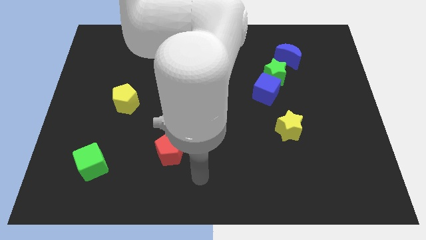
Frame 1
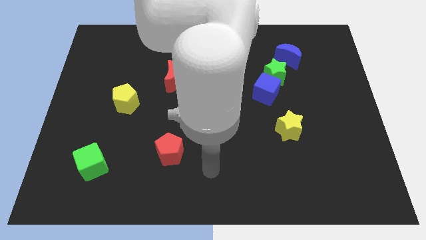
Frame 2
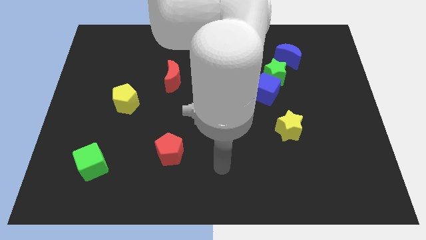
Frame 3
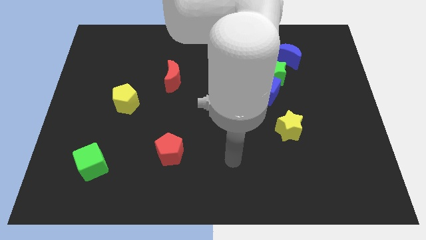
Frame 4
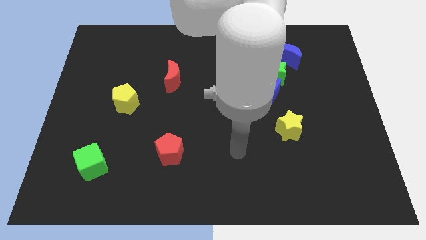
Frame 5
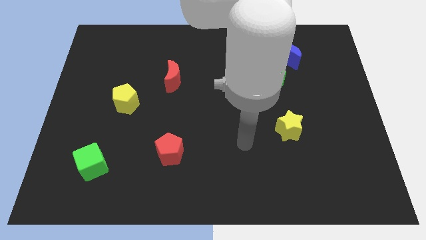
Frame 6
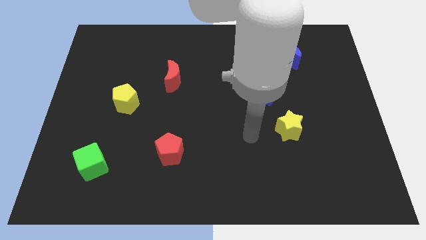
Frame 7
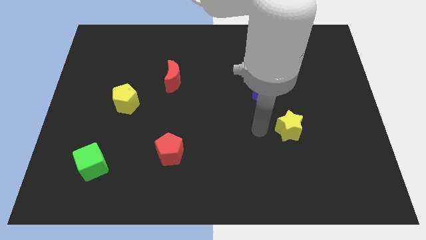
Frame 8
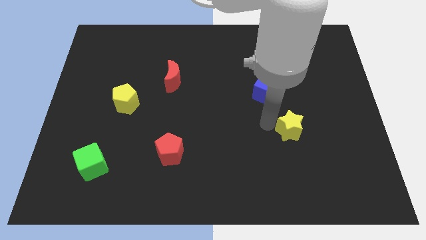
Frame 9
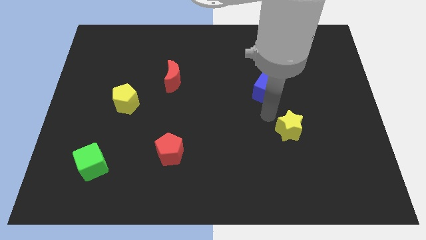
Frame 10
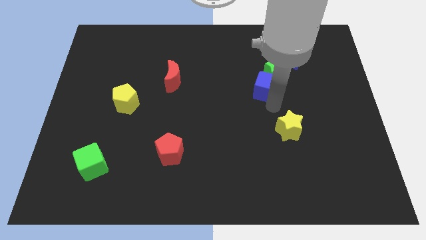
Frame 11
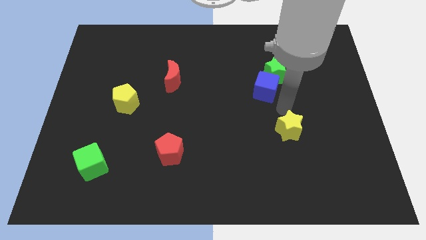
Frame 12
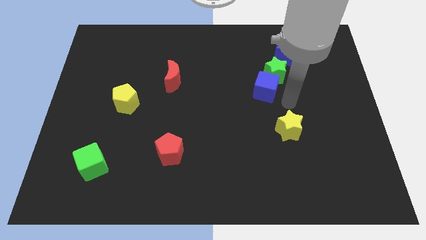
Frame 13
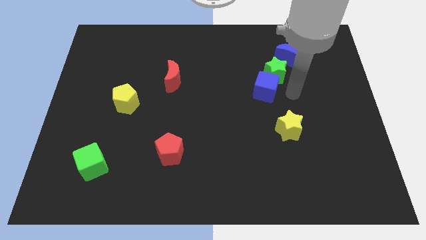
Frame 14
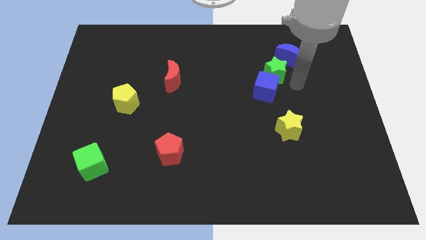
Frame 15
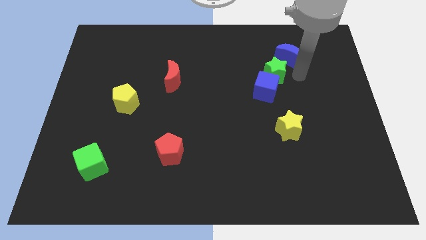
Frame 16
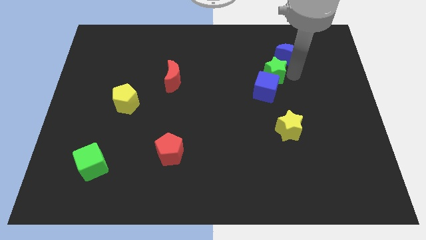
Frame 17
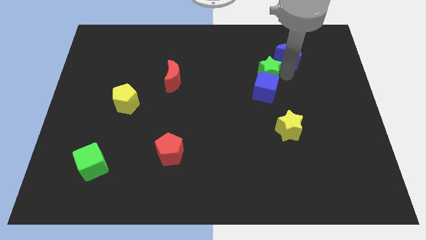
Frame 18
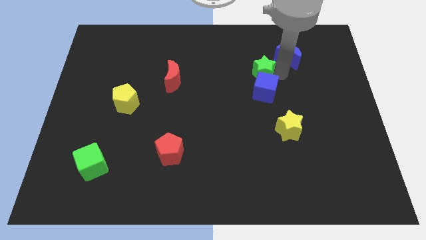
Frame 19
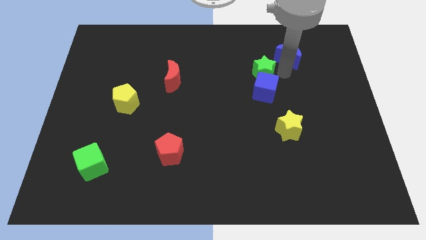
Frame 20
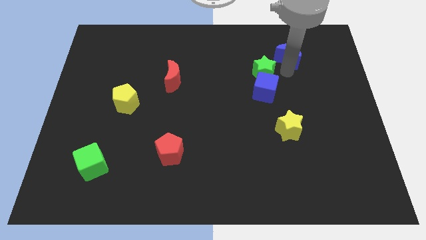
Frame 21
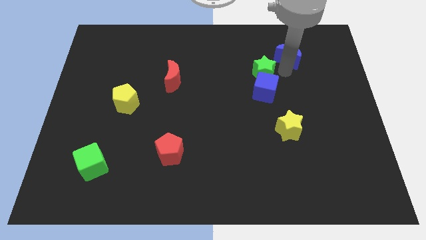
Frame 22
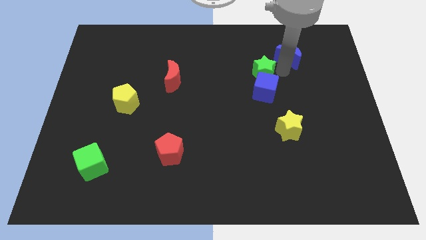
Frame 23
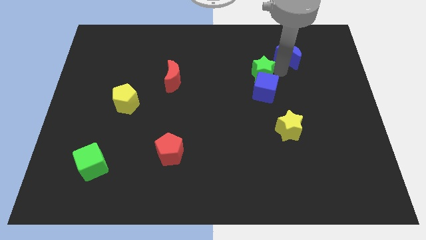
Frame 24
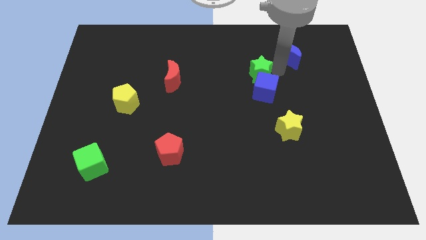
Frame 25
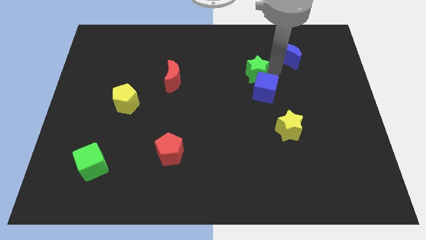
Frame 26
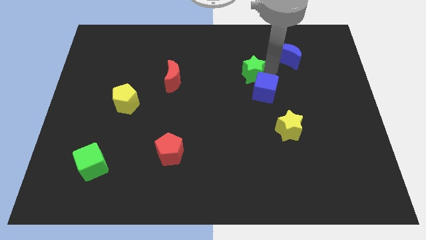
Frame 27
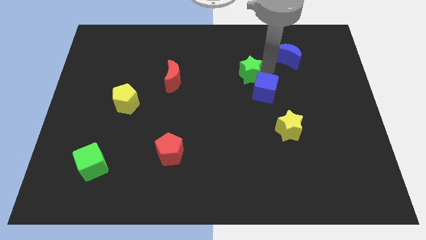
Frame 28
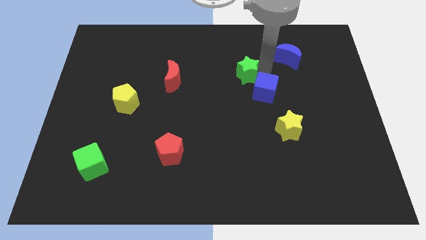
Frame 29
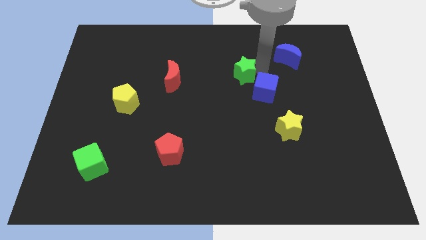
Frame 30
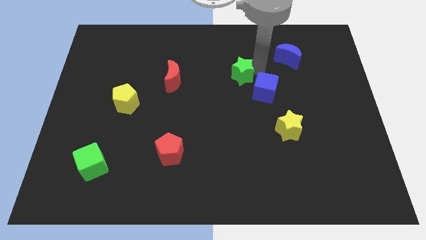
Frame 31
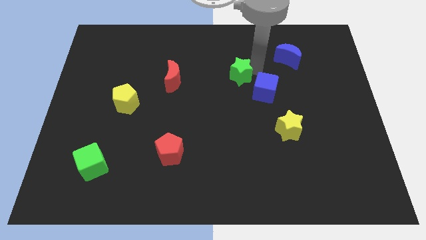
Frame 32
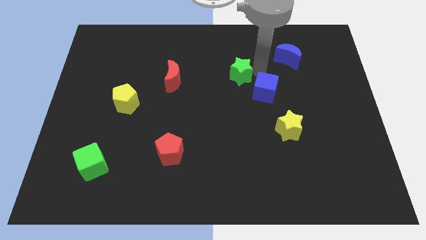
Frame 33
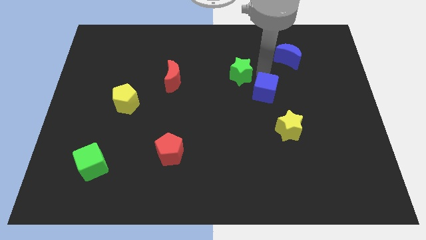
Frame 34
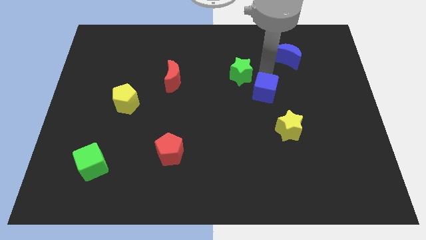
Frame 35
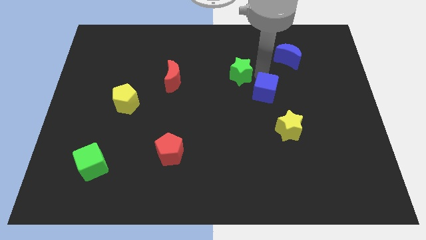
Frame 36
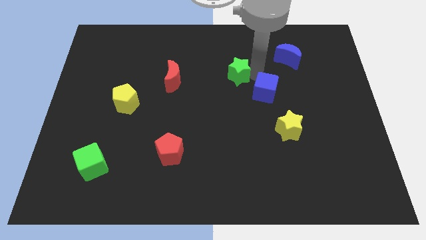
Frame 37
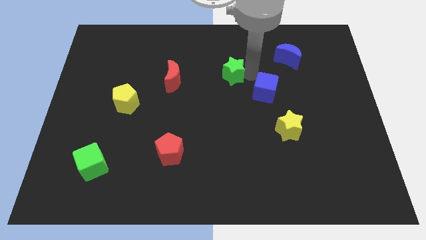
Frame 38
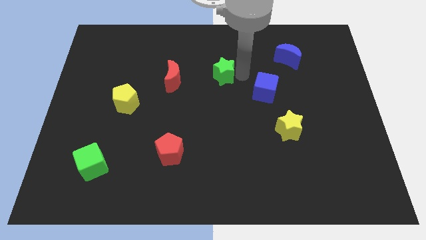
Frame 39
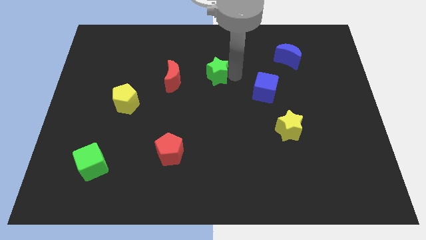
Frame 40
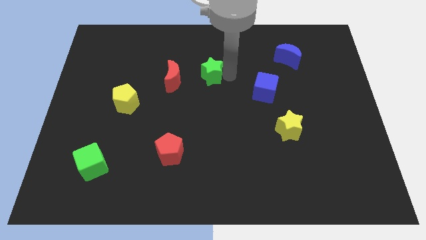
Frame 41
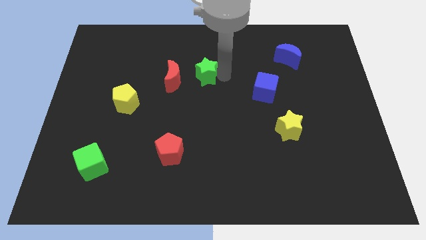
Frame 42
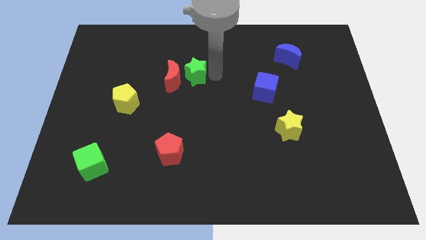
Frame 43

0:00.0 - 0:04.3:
push the green star to the red moon

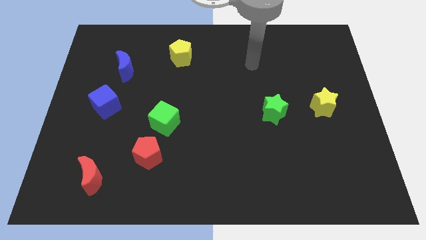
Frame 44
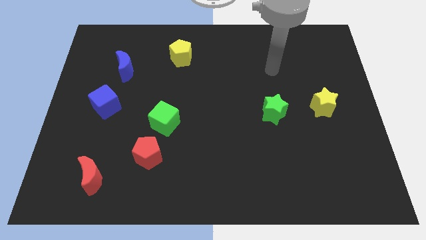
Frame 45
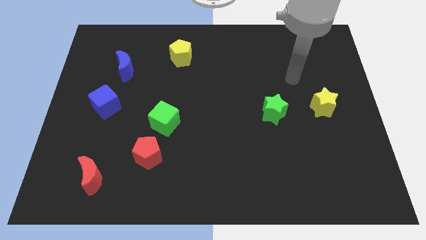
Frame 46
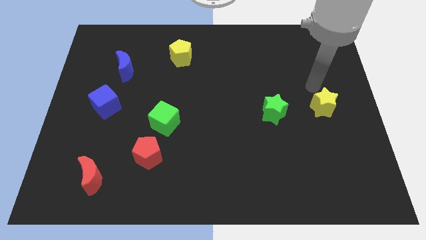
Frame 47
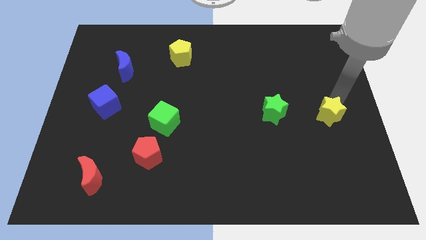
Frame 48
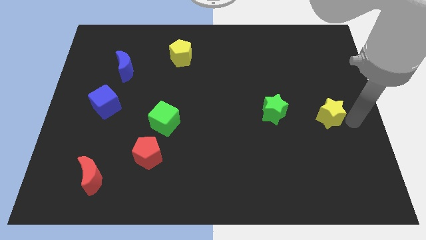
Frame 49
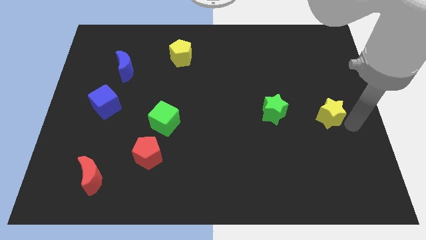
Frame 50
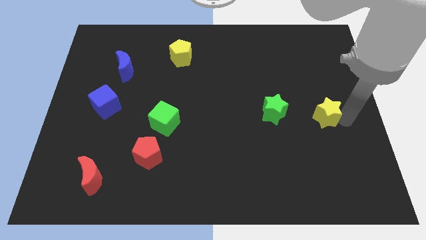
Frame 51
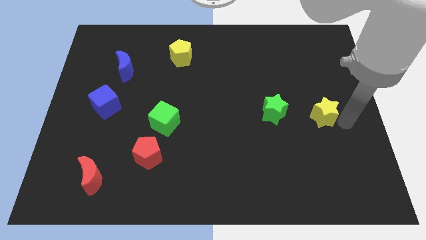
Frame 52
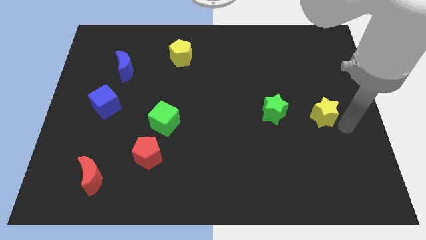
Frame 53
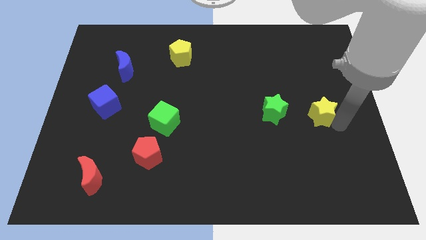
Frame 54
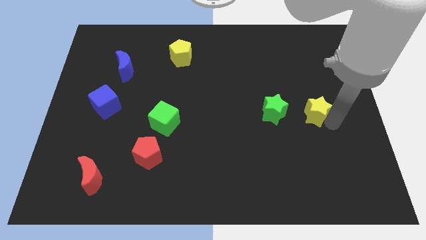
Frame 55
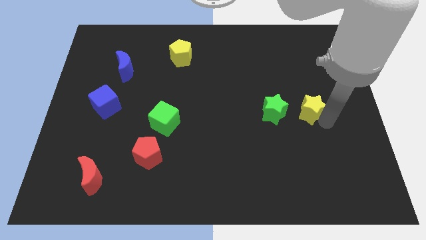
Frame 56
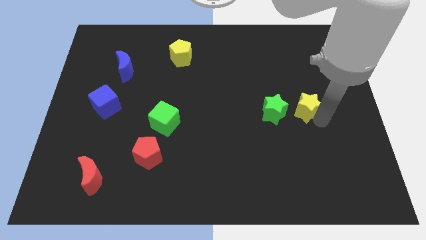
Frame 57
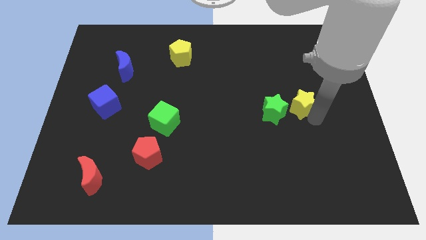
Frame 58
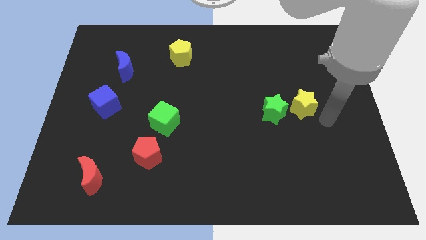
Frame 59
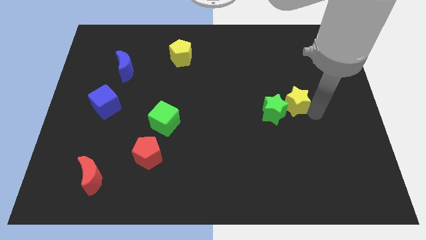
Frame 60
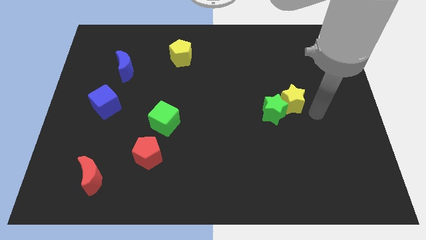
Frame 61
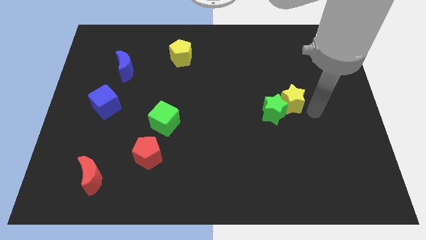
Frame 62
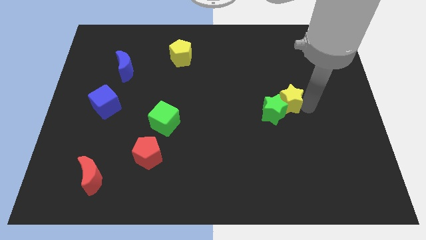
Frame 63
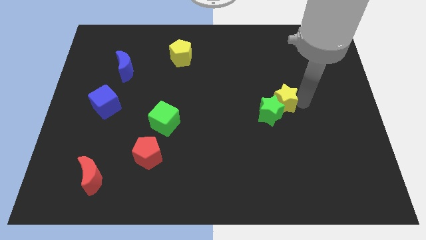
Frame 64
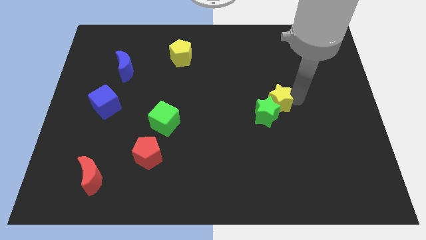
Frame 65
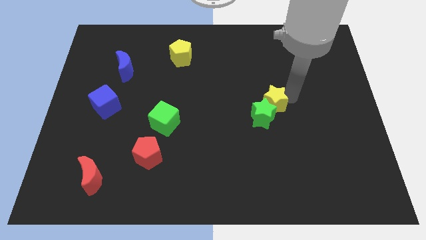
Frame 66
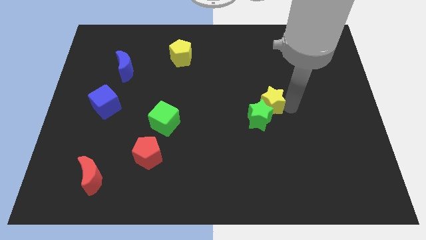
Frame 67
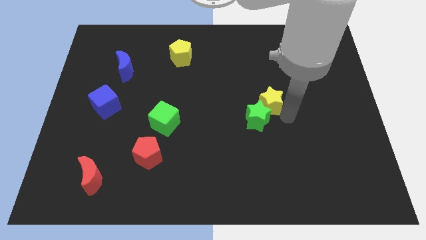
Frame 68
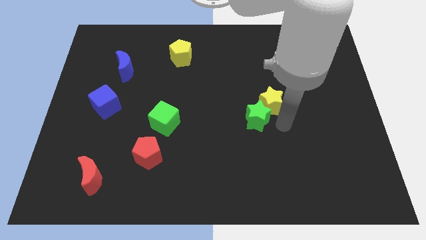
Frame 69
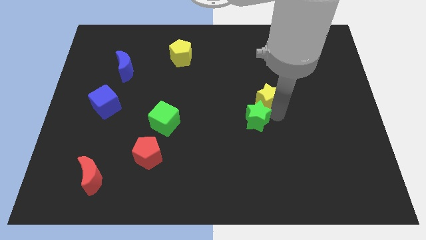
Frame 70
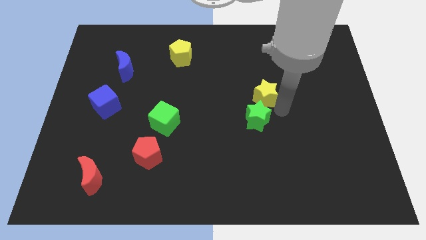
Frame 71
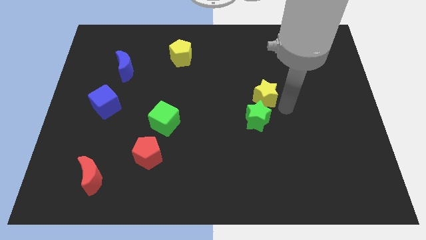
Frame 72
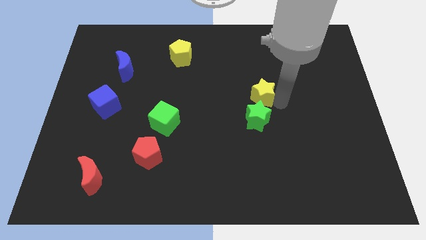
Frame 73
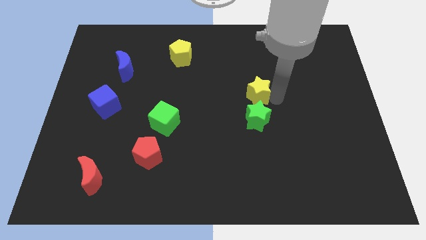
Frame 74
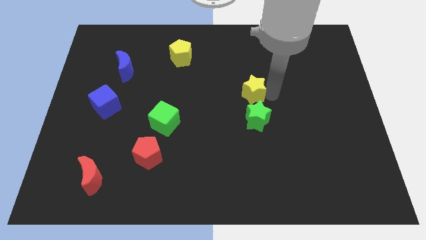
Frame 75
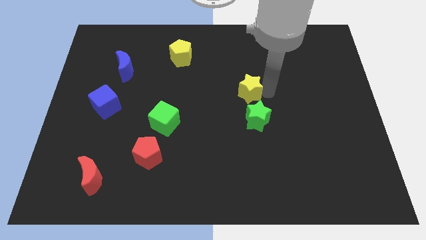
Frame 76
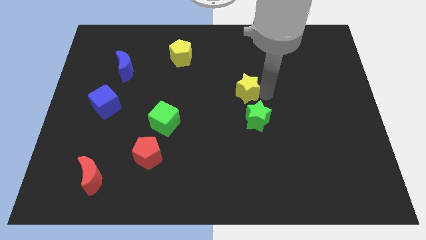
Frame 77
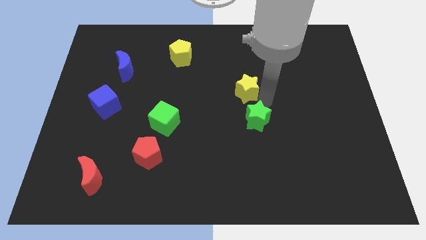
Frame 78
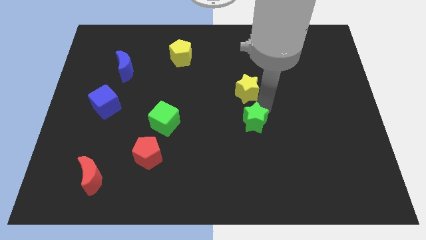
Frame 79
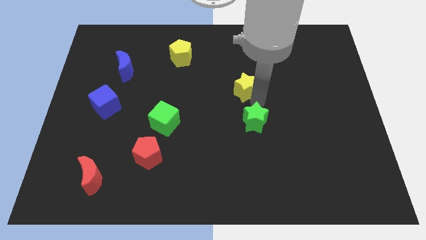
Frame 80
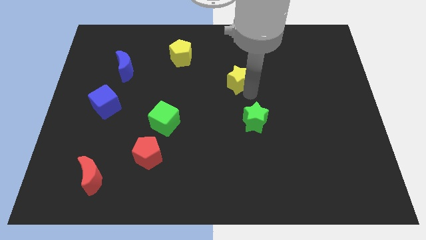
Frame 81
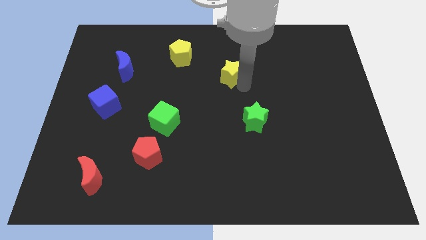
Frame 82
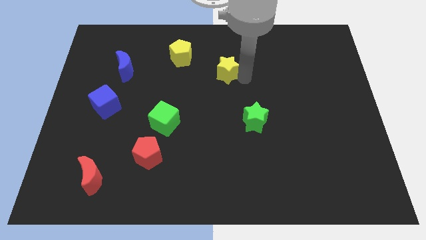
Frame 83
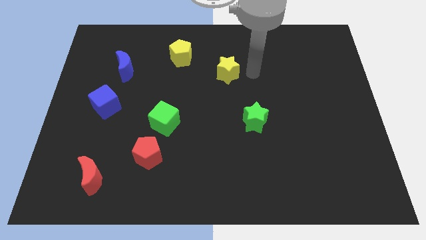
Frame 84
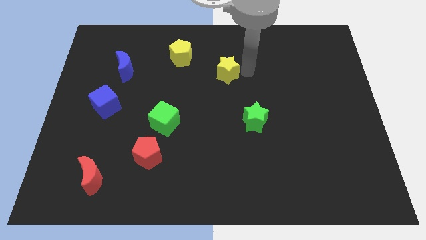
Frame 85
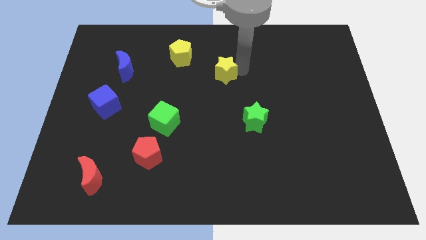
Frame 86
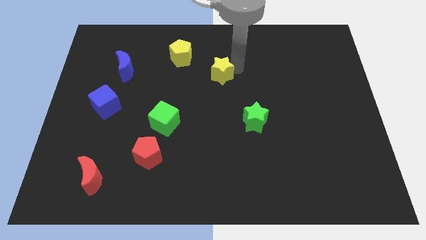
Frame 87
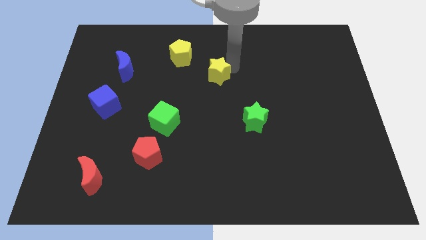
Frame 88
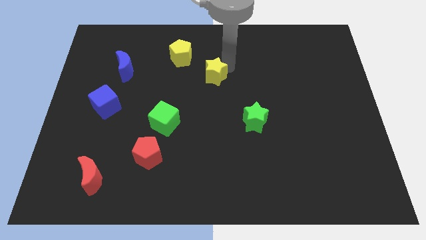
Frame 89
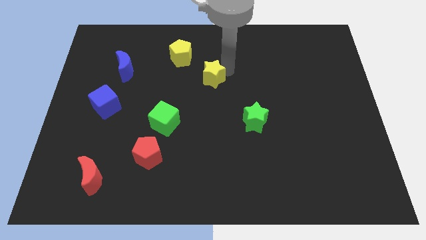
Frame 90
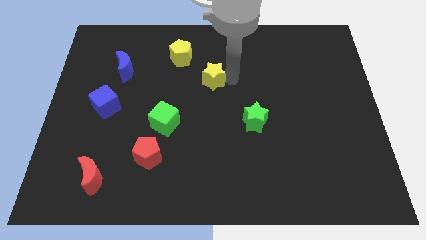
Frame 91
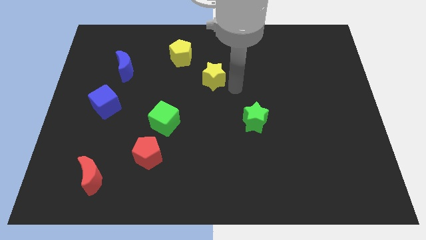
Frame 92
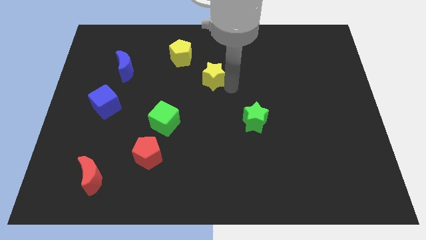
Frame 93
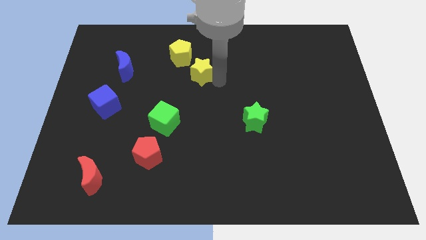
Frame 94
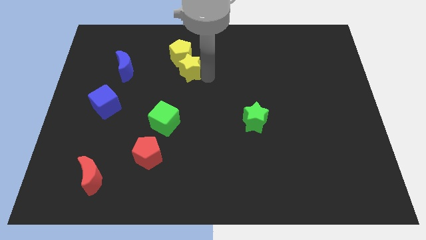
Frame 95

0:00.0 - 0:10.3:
move the yellow star towards the yellow pentagon
